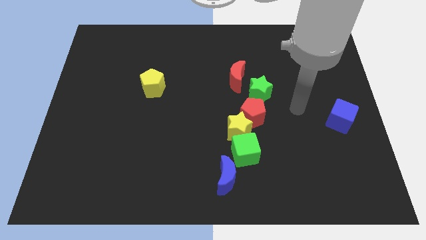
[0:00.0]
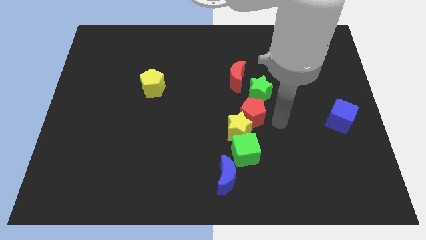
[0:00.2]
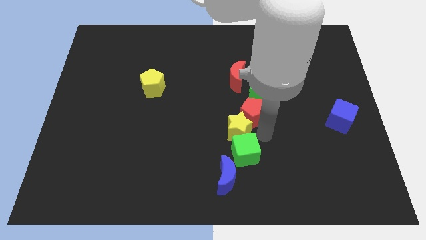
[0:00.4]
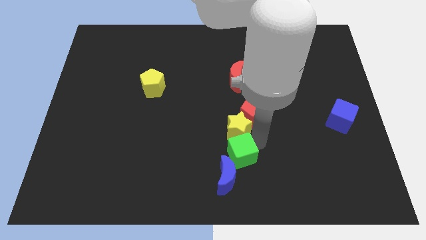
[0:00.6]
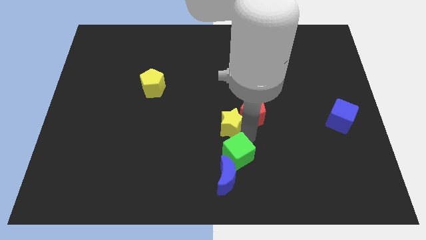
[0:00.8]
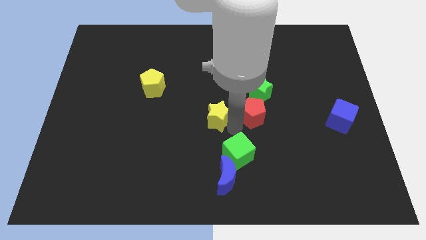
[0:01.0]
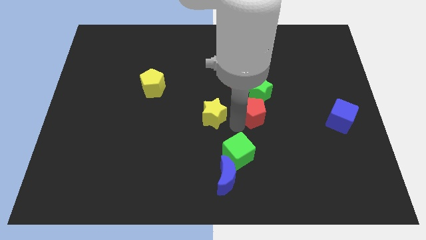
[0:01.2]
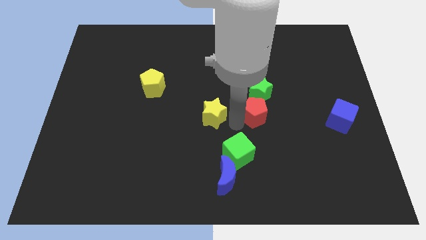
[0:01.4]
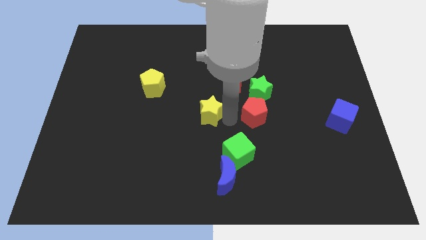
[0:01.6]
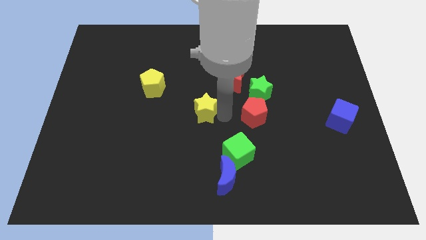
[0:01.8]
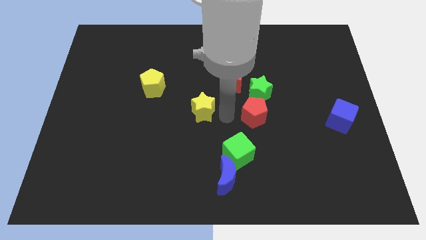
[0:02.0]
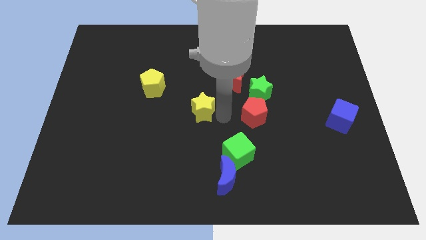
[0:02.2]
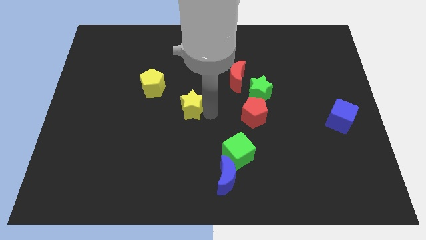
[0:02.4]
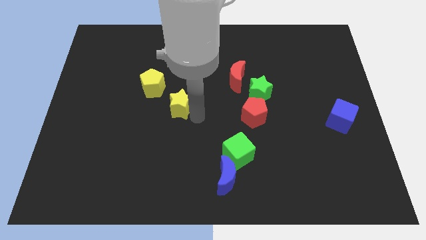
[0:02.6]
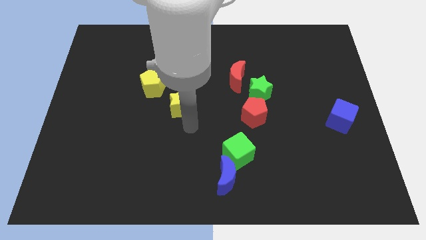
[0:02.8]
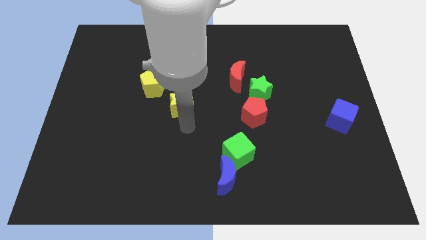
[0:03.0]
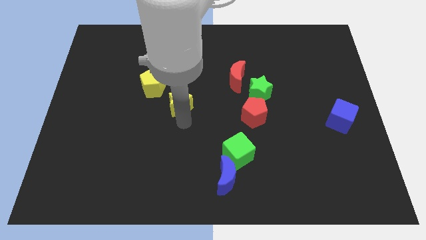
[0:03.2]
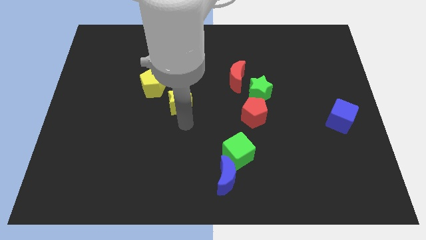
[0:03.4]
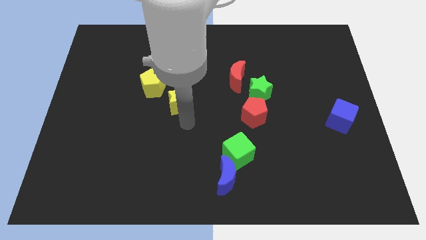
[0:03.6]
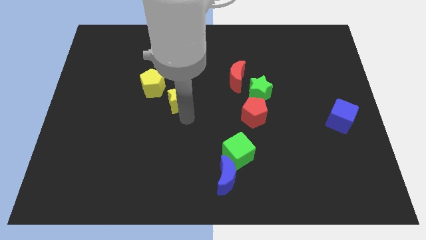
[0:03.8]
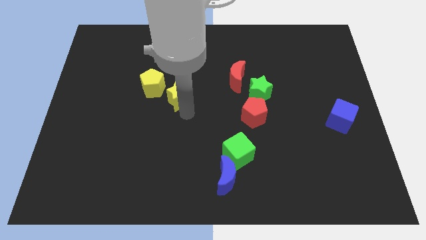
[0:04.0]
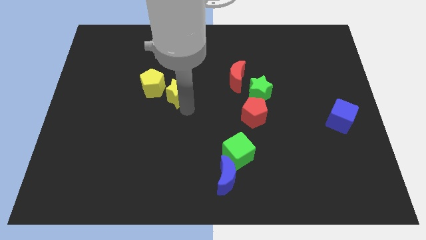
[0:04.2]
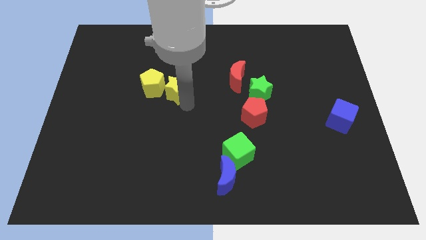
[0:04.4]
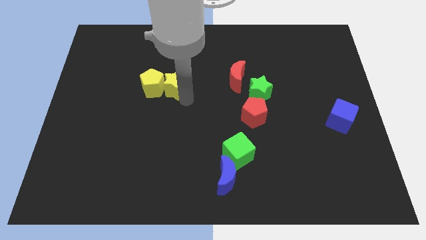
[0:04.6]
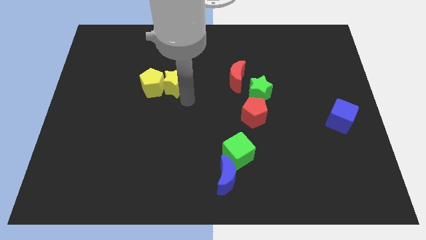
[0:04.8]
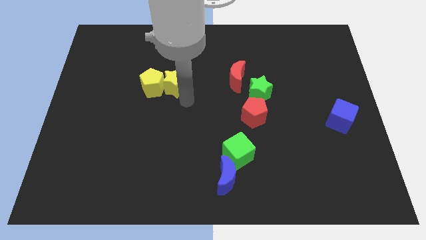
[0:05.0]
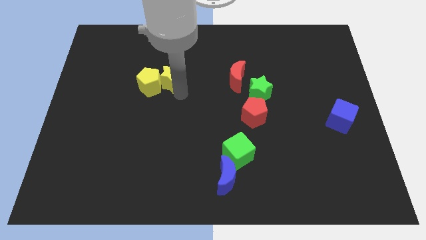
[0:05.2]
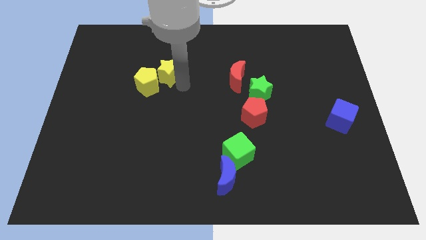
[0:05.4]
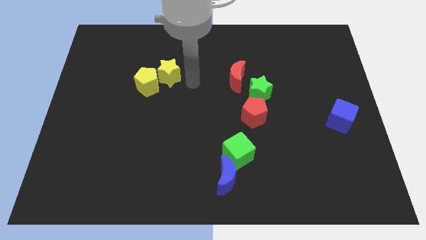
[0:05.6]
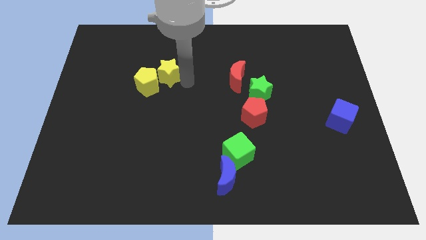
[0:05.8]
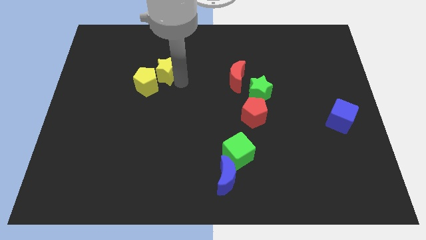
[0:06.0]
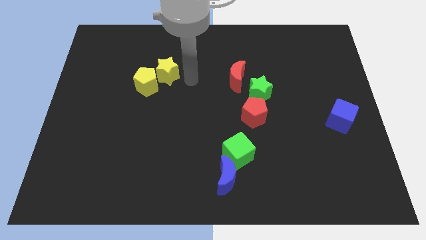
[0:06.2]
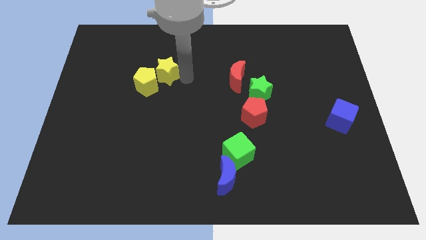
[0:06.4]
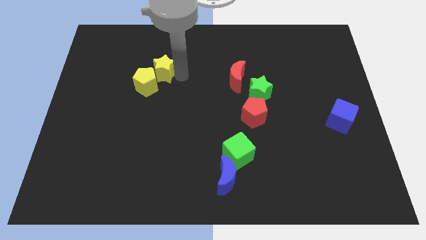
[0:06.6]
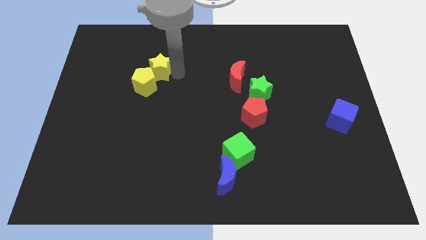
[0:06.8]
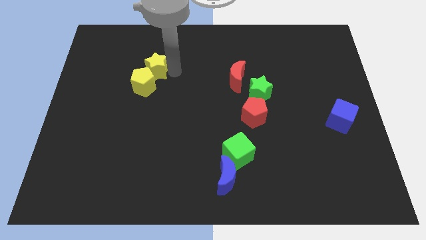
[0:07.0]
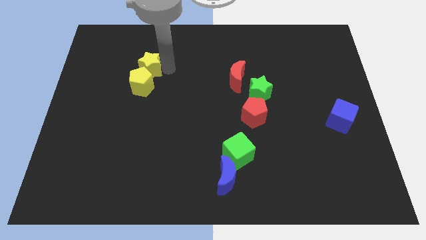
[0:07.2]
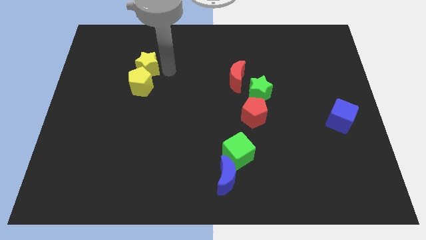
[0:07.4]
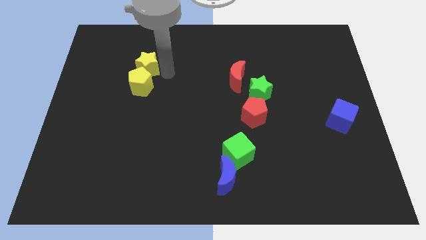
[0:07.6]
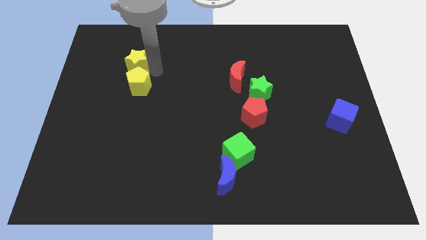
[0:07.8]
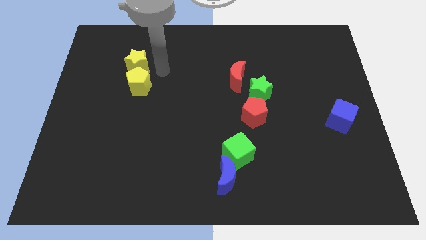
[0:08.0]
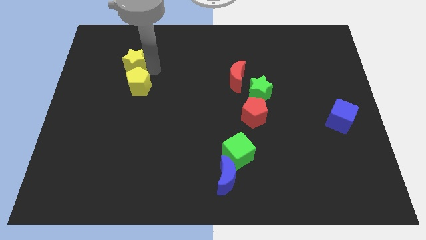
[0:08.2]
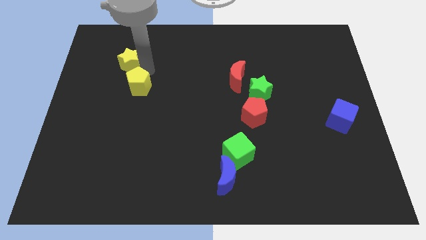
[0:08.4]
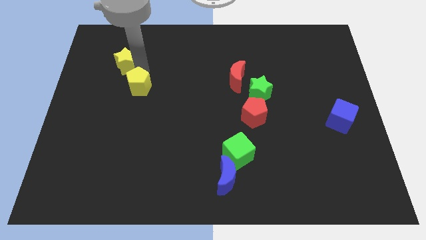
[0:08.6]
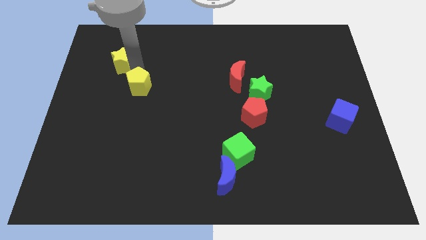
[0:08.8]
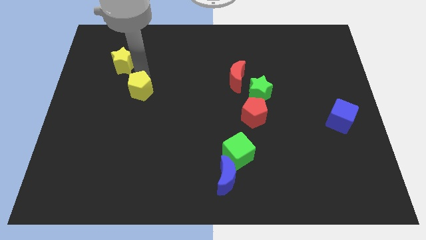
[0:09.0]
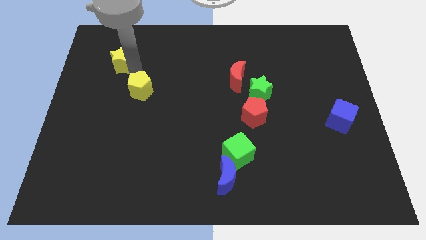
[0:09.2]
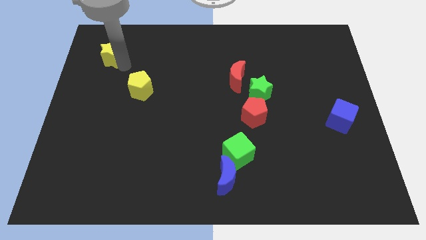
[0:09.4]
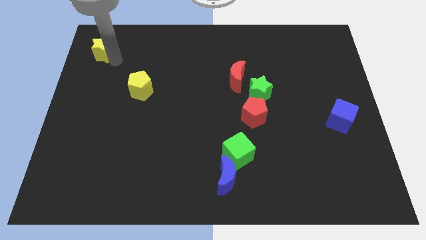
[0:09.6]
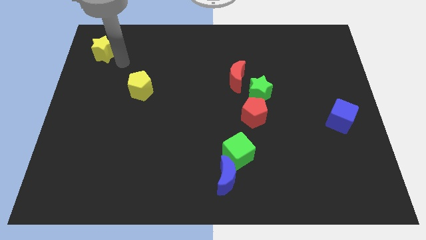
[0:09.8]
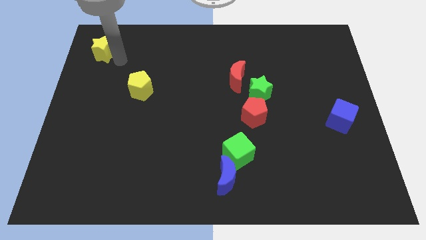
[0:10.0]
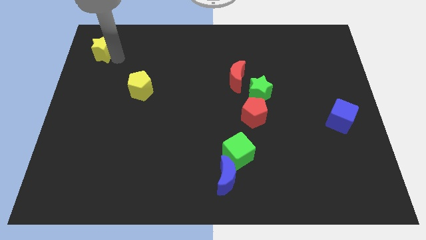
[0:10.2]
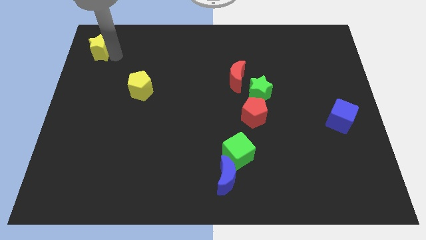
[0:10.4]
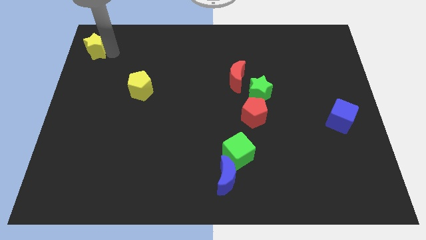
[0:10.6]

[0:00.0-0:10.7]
put the yellow star to the top left

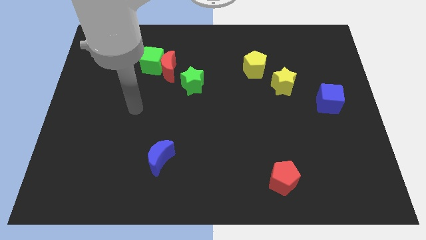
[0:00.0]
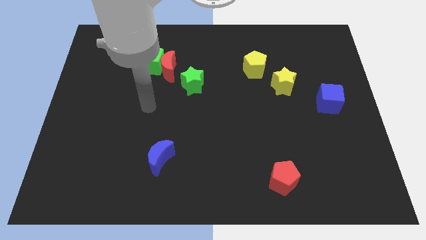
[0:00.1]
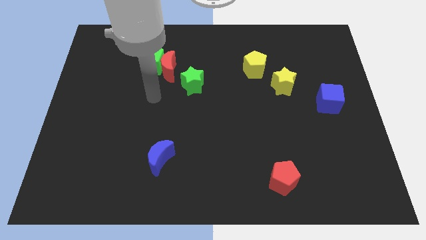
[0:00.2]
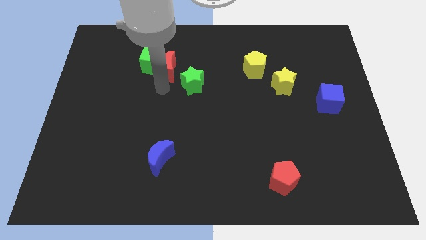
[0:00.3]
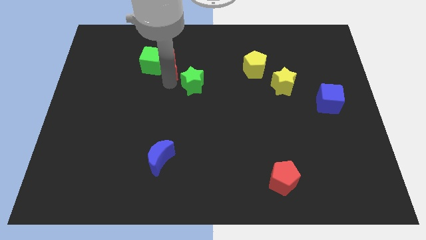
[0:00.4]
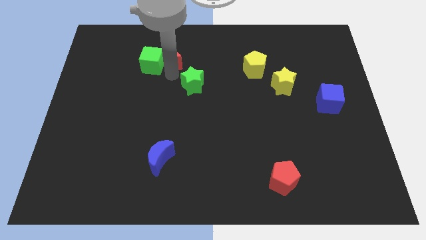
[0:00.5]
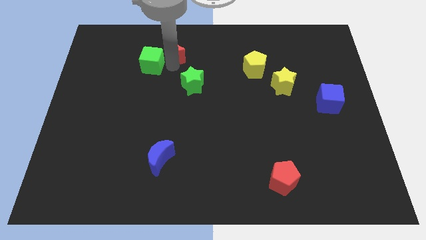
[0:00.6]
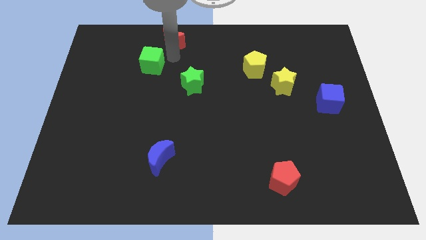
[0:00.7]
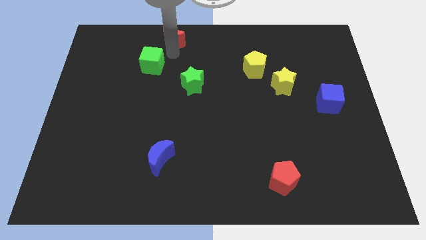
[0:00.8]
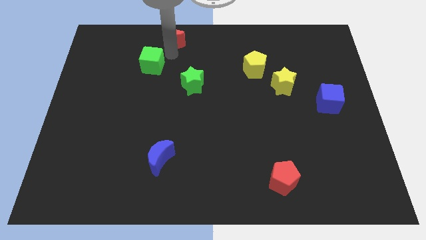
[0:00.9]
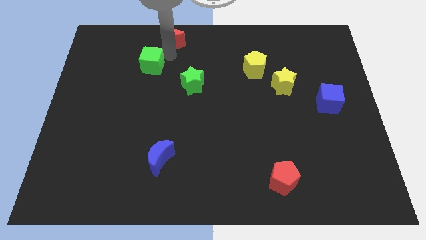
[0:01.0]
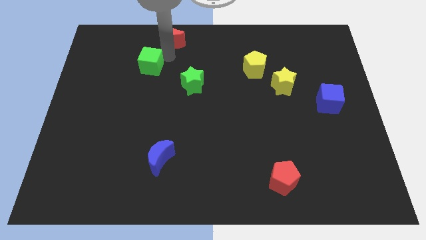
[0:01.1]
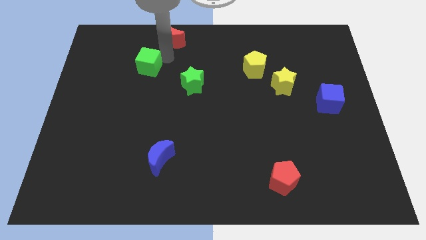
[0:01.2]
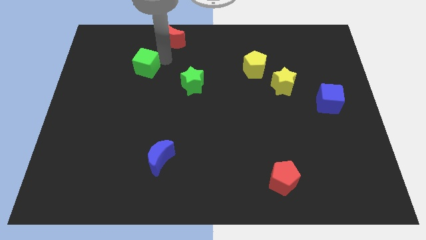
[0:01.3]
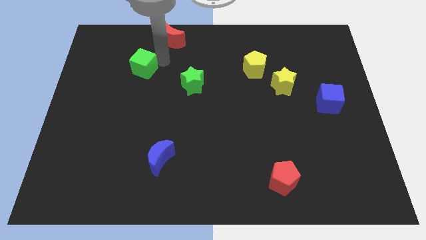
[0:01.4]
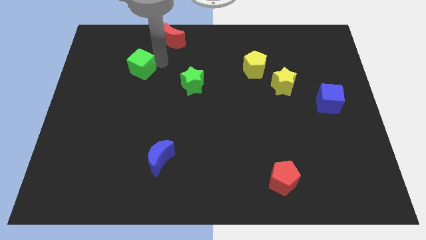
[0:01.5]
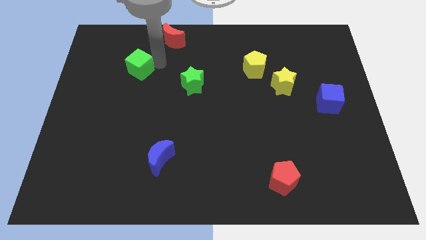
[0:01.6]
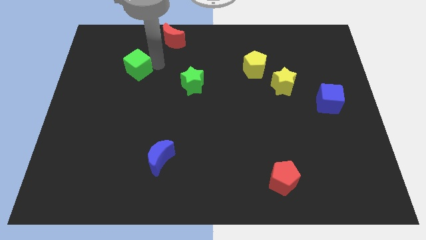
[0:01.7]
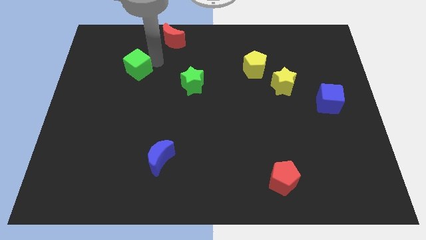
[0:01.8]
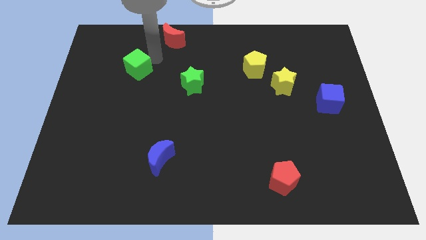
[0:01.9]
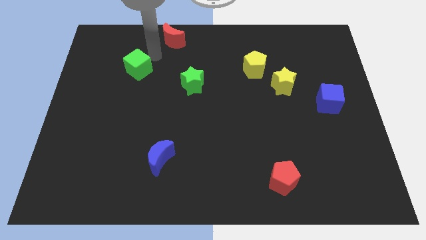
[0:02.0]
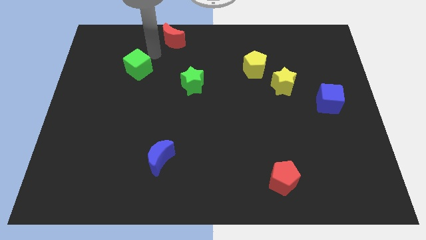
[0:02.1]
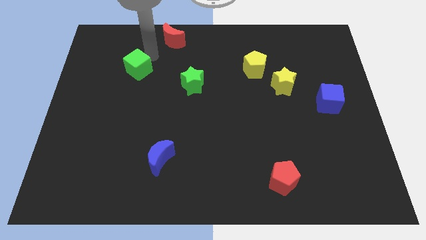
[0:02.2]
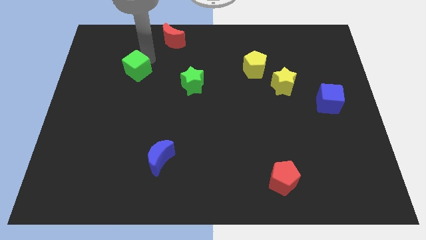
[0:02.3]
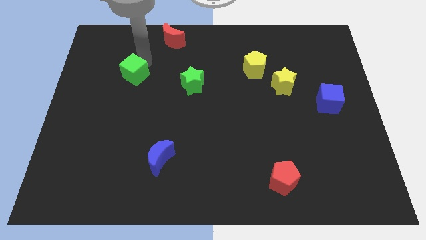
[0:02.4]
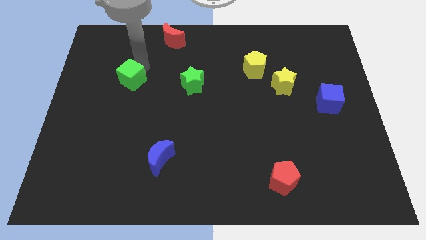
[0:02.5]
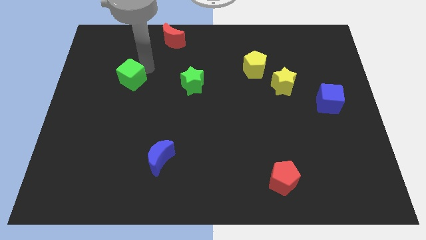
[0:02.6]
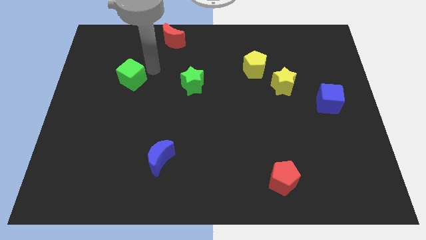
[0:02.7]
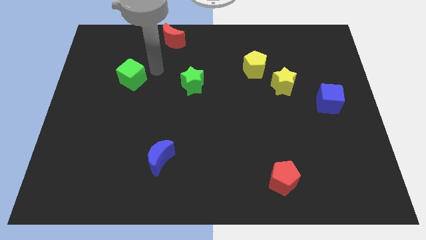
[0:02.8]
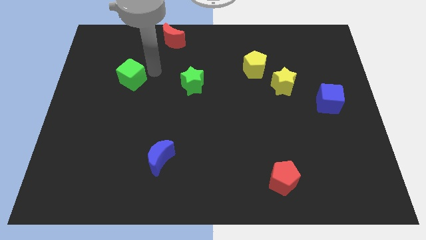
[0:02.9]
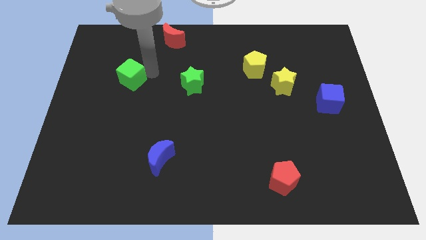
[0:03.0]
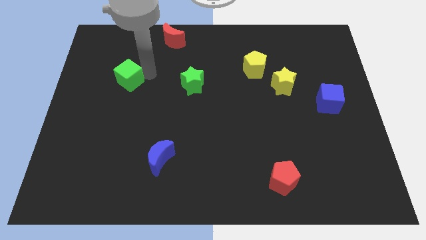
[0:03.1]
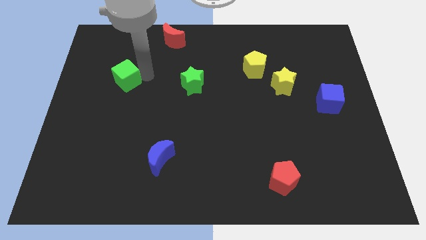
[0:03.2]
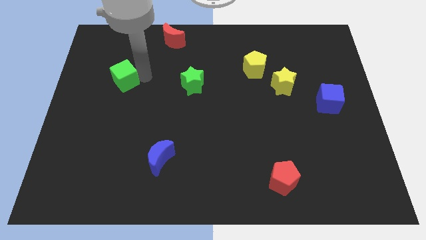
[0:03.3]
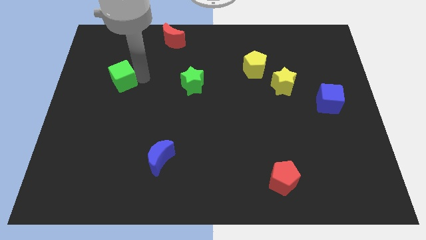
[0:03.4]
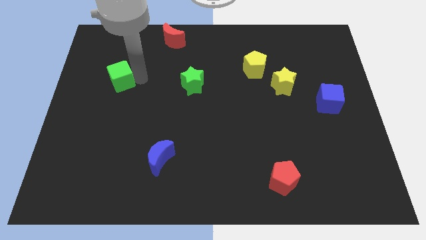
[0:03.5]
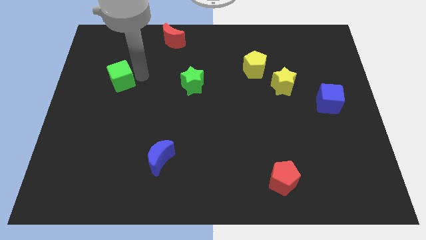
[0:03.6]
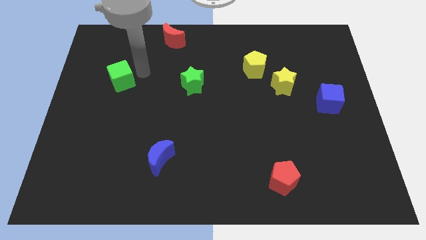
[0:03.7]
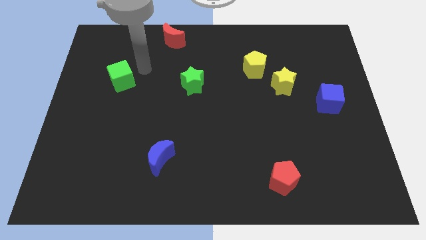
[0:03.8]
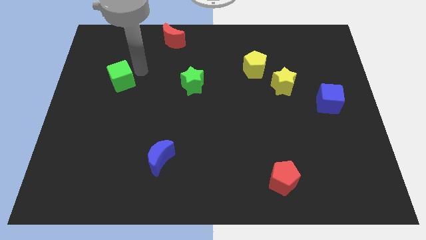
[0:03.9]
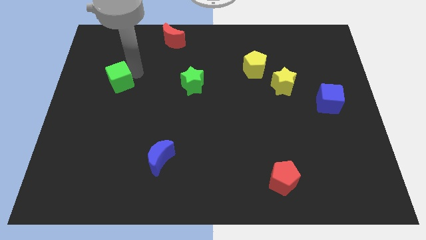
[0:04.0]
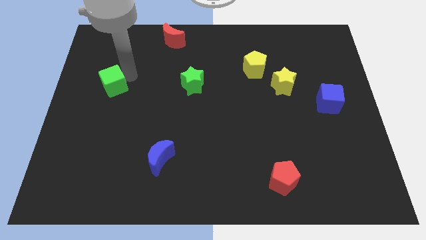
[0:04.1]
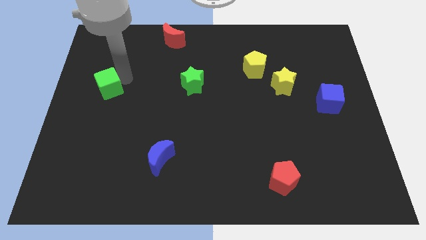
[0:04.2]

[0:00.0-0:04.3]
move the green cube to the center left
